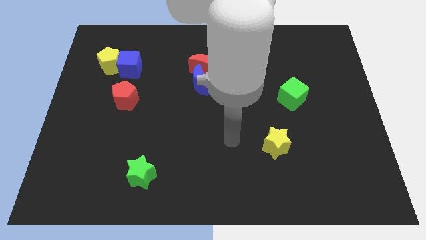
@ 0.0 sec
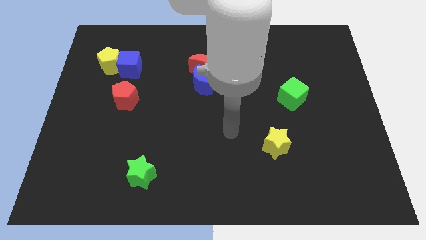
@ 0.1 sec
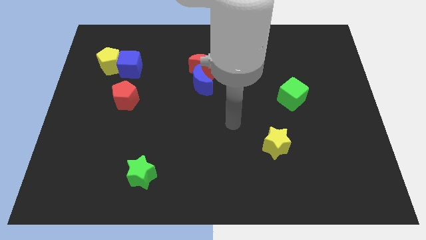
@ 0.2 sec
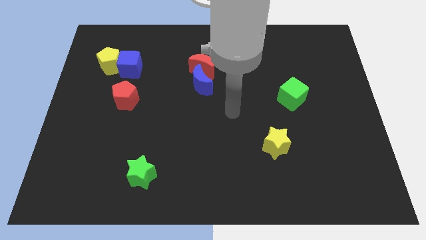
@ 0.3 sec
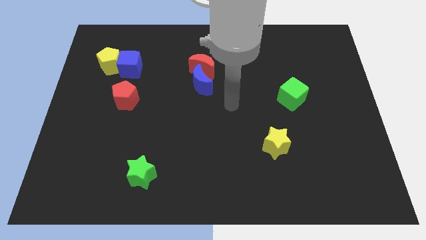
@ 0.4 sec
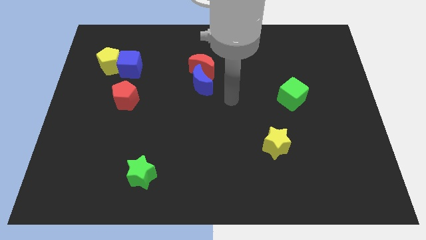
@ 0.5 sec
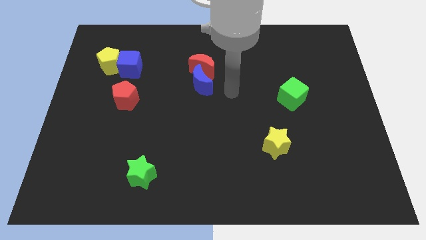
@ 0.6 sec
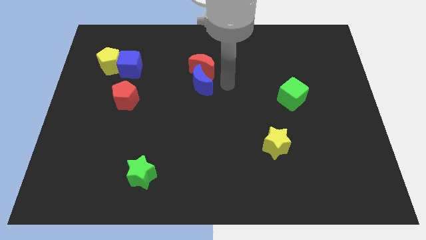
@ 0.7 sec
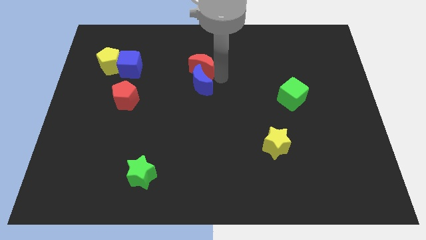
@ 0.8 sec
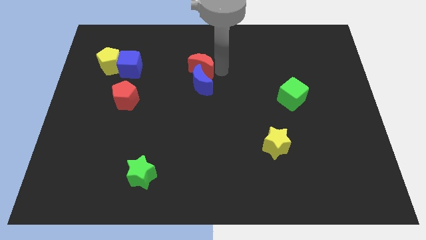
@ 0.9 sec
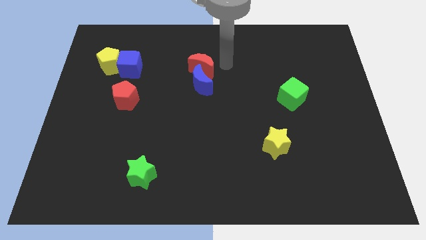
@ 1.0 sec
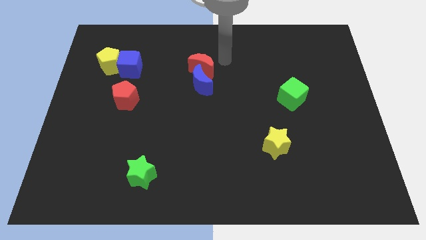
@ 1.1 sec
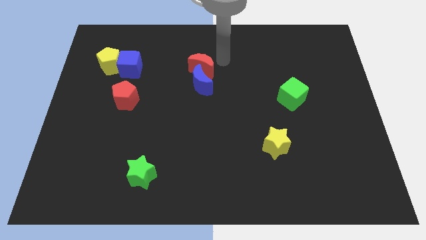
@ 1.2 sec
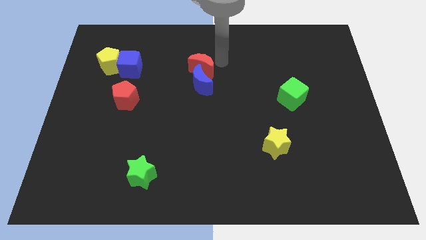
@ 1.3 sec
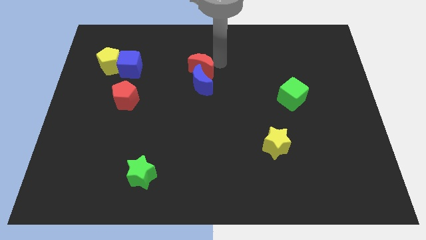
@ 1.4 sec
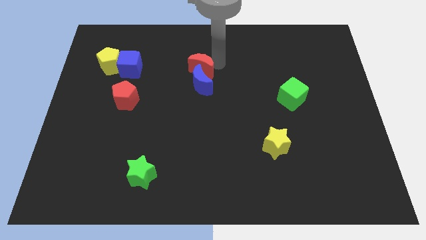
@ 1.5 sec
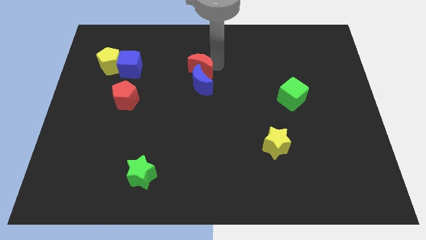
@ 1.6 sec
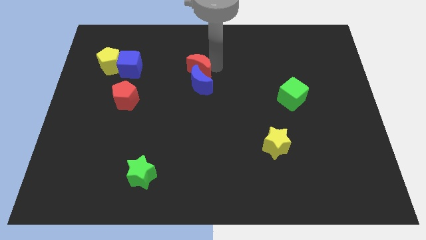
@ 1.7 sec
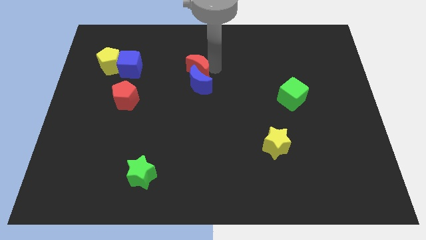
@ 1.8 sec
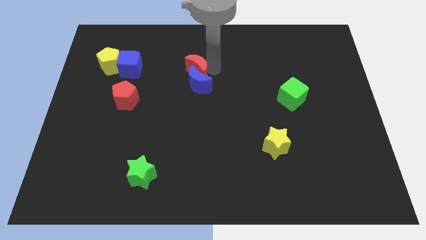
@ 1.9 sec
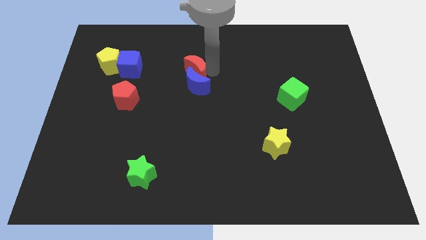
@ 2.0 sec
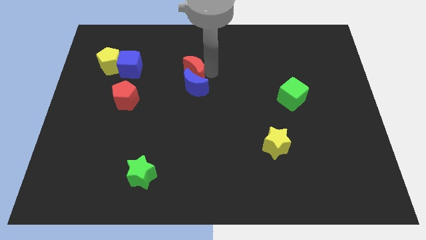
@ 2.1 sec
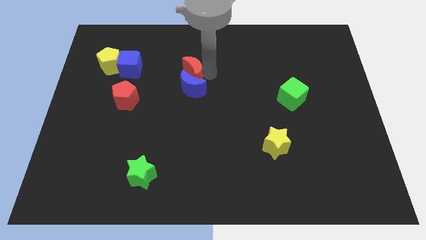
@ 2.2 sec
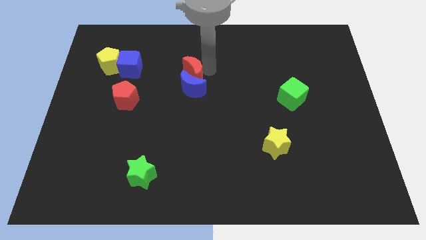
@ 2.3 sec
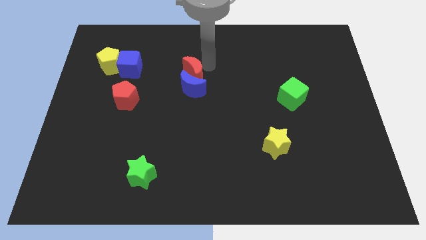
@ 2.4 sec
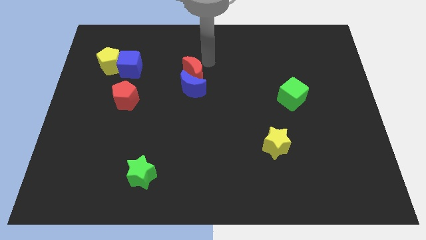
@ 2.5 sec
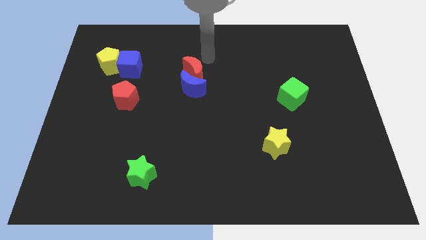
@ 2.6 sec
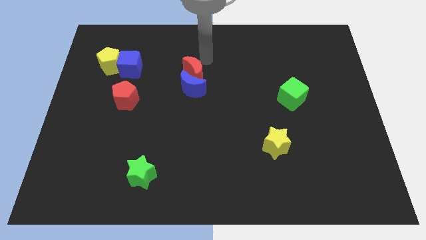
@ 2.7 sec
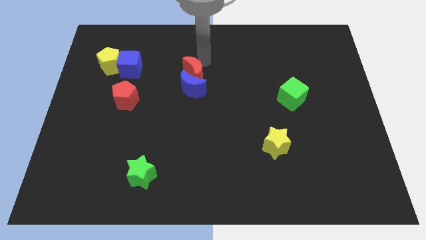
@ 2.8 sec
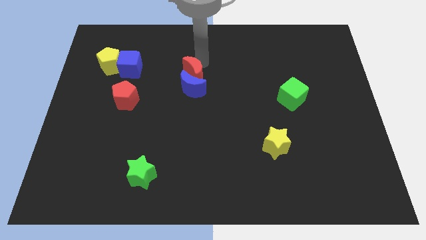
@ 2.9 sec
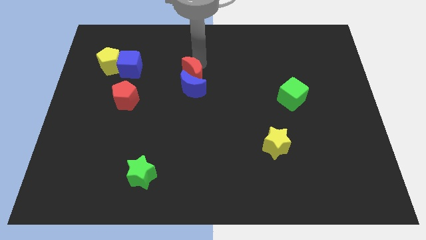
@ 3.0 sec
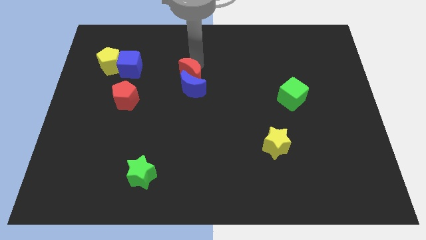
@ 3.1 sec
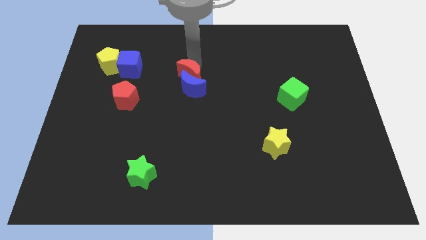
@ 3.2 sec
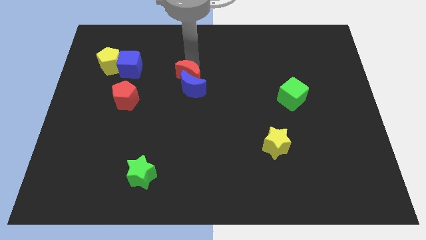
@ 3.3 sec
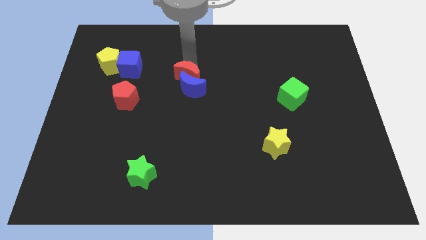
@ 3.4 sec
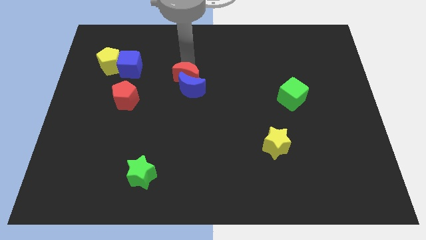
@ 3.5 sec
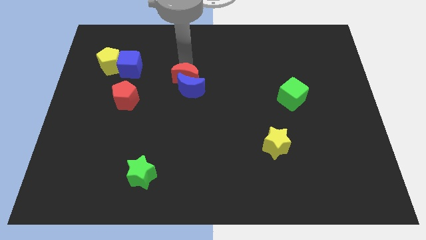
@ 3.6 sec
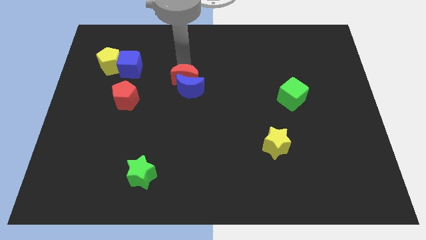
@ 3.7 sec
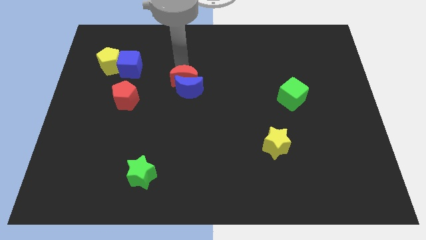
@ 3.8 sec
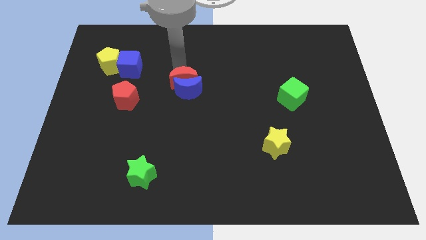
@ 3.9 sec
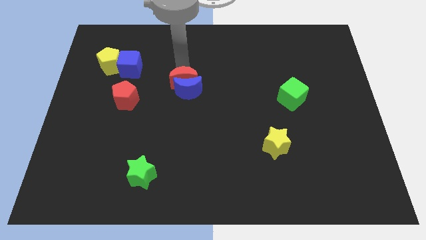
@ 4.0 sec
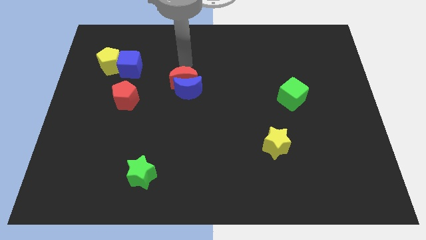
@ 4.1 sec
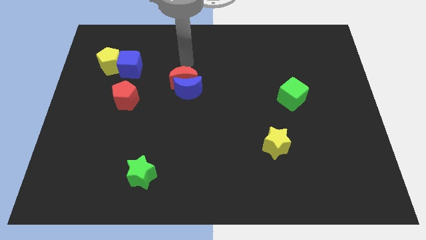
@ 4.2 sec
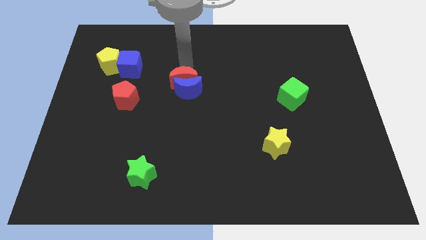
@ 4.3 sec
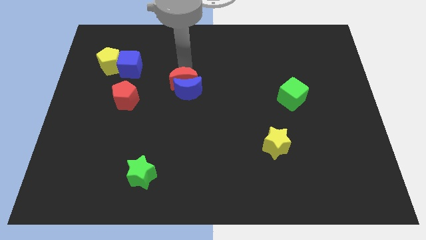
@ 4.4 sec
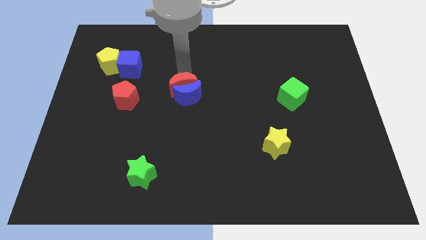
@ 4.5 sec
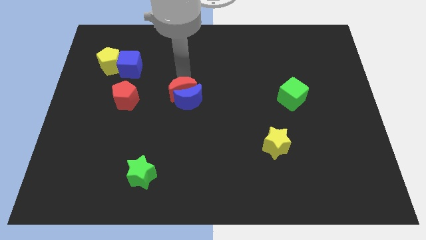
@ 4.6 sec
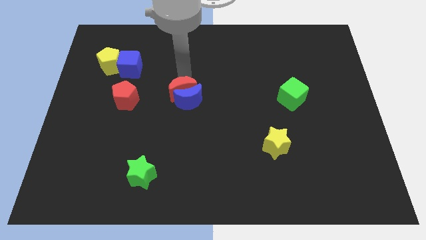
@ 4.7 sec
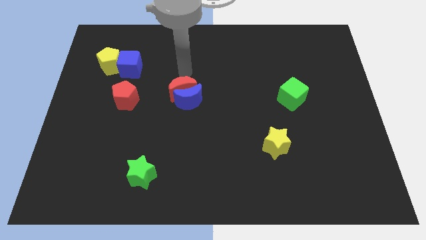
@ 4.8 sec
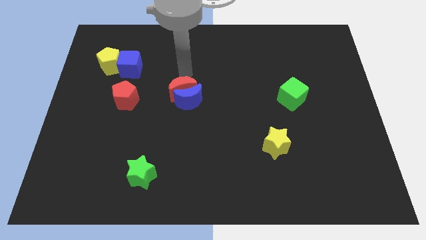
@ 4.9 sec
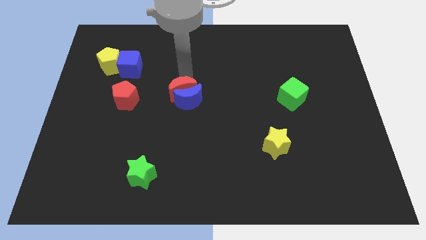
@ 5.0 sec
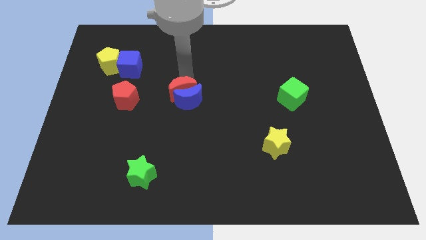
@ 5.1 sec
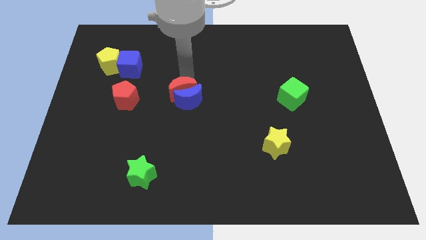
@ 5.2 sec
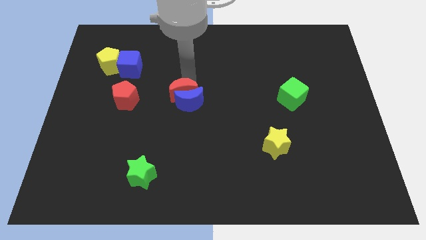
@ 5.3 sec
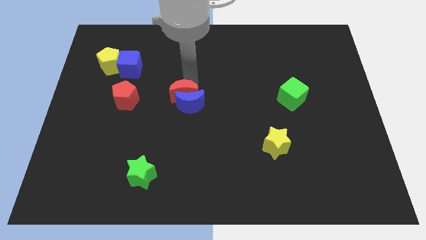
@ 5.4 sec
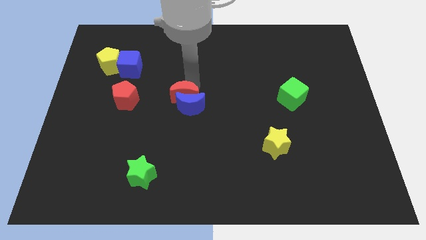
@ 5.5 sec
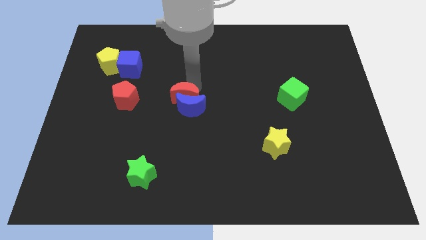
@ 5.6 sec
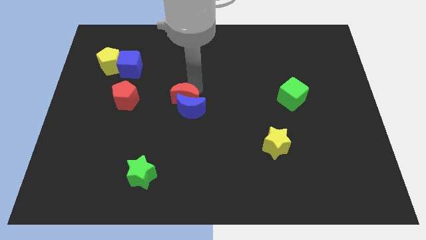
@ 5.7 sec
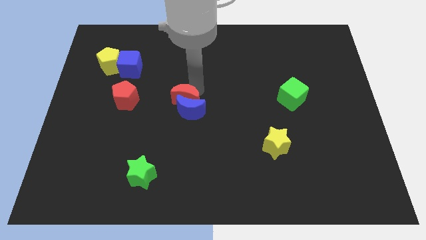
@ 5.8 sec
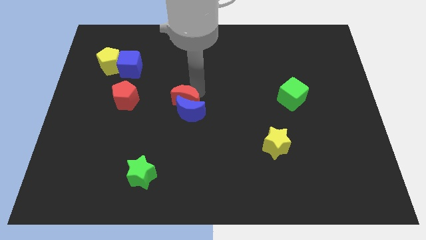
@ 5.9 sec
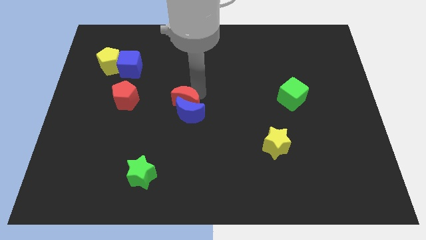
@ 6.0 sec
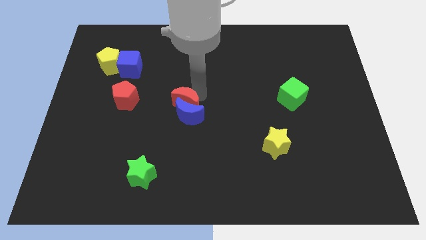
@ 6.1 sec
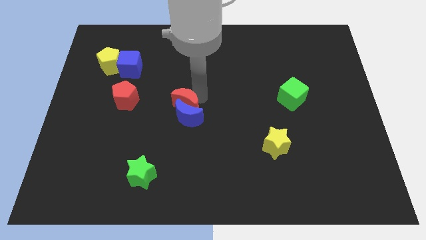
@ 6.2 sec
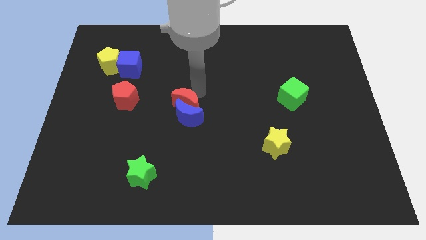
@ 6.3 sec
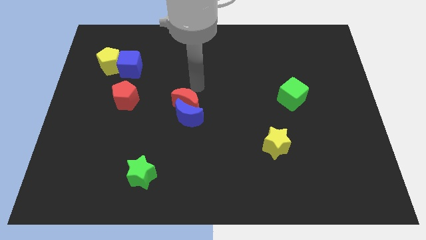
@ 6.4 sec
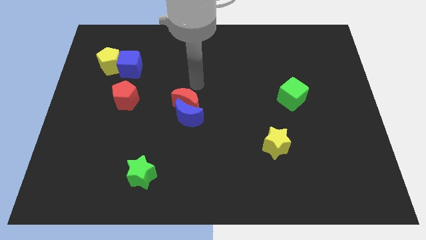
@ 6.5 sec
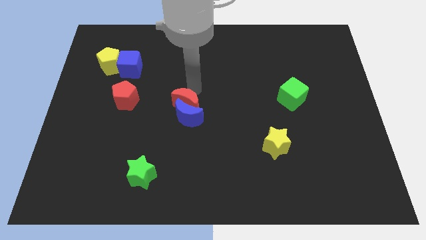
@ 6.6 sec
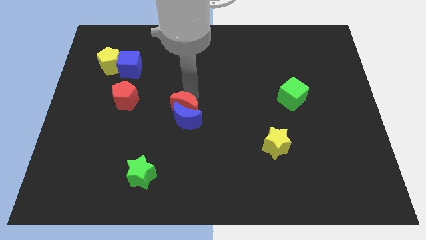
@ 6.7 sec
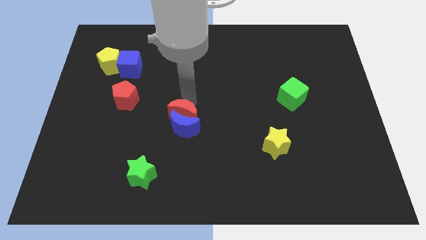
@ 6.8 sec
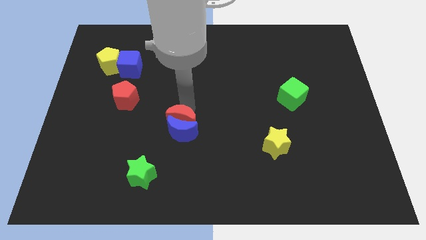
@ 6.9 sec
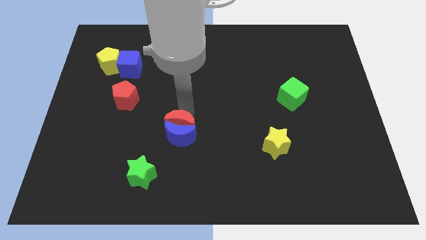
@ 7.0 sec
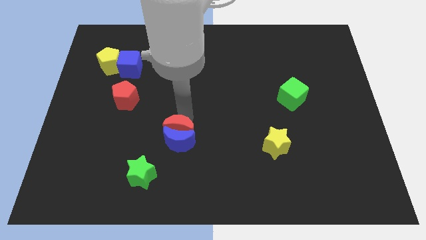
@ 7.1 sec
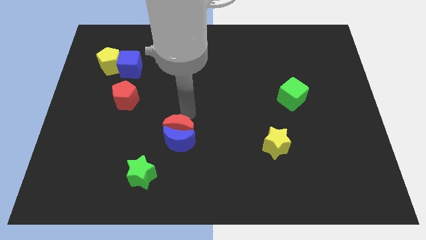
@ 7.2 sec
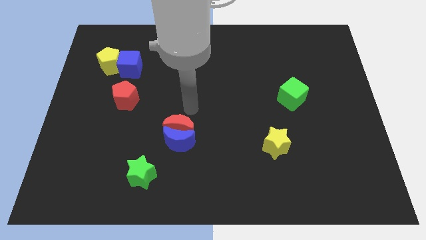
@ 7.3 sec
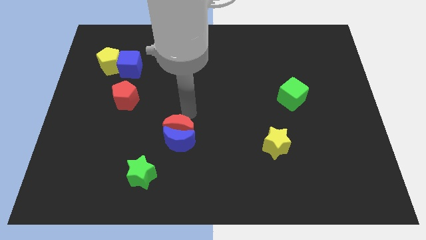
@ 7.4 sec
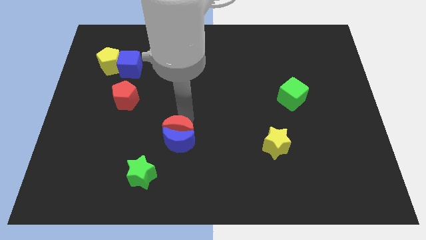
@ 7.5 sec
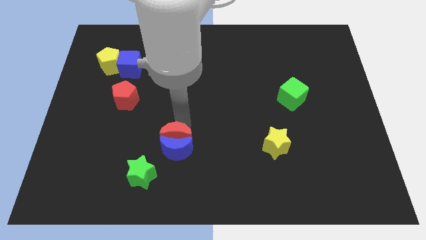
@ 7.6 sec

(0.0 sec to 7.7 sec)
slide the red moon to the top right side of the green star
